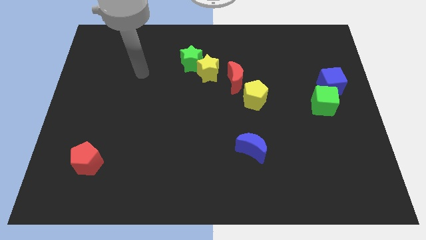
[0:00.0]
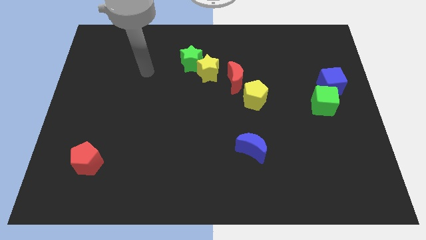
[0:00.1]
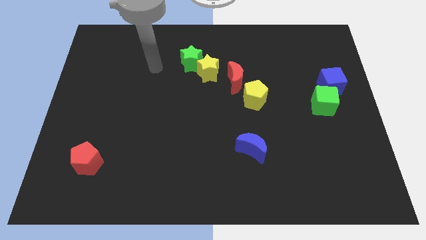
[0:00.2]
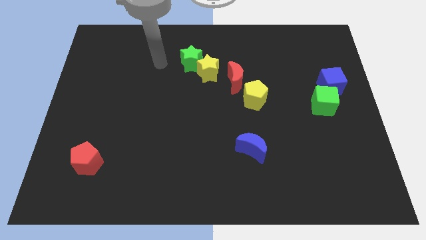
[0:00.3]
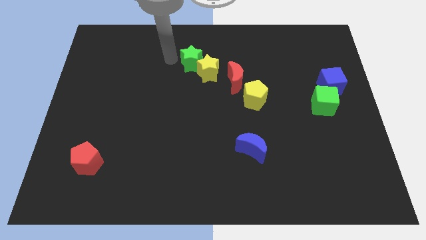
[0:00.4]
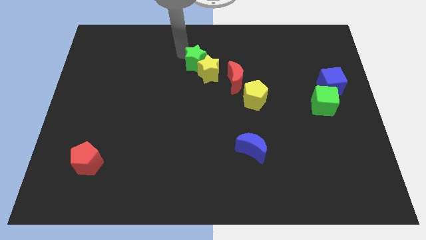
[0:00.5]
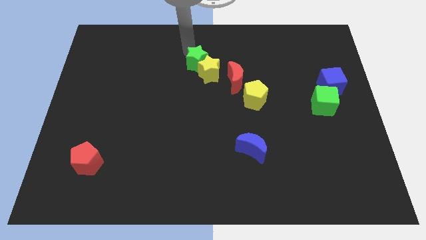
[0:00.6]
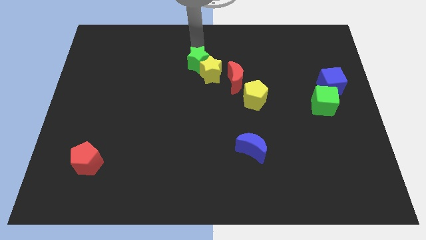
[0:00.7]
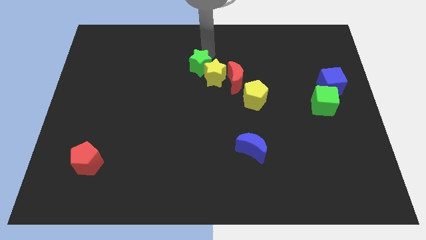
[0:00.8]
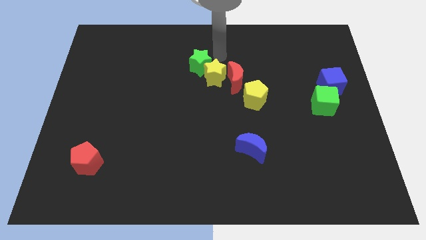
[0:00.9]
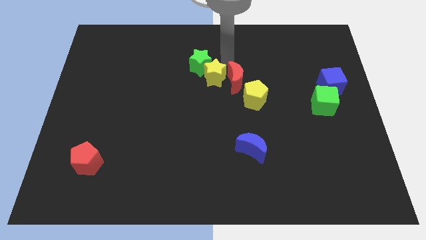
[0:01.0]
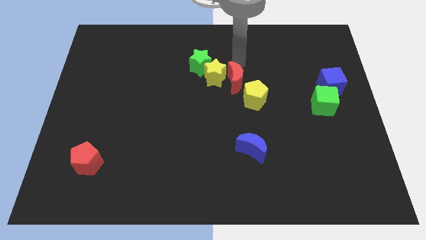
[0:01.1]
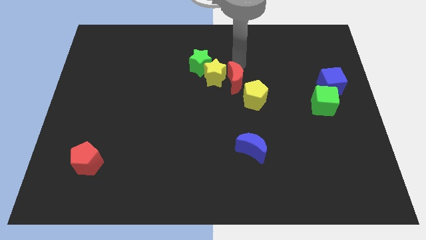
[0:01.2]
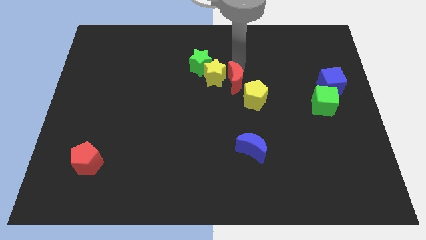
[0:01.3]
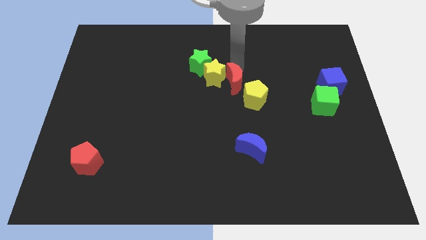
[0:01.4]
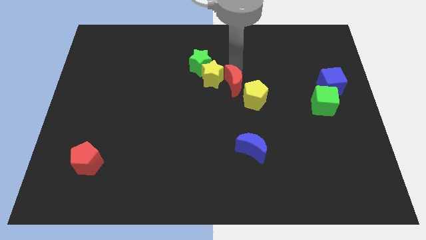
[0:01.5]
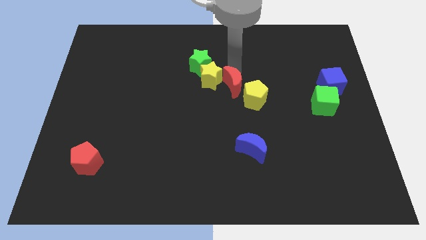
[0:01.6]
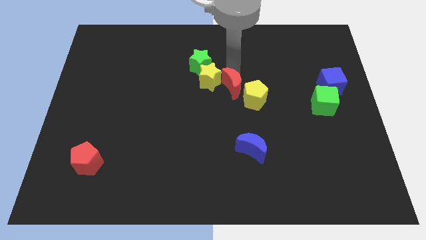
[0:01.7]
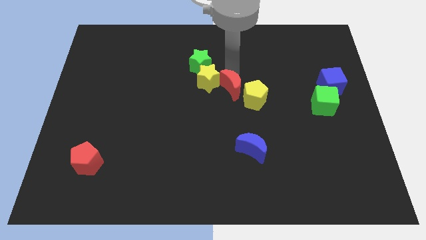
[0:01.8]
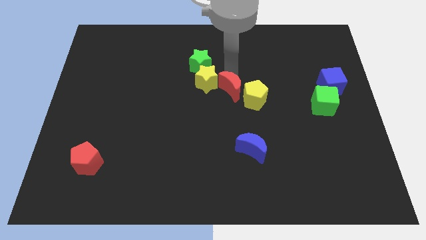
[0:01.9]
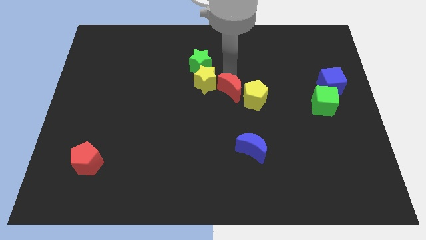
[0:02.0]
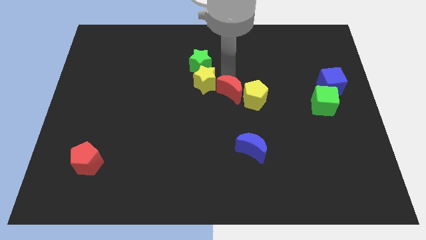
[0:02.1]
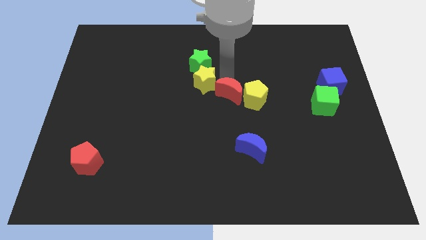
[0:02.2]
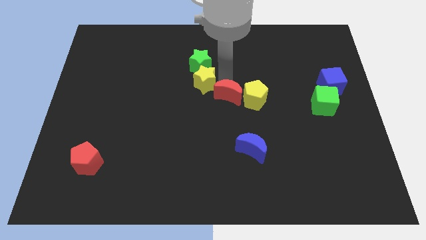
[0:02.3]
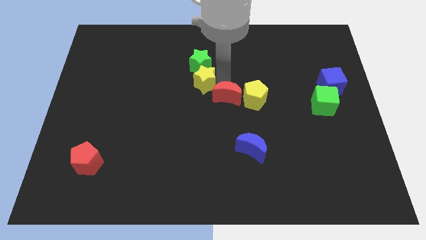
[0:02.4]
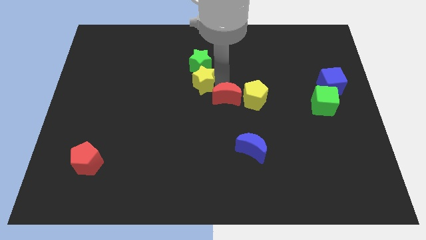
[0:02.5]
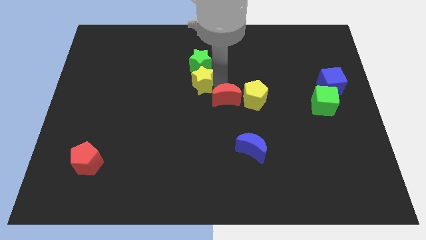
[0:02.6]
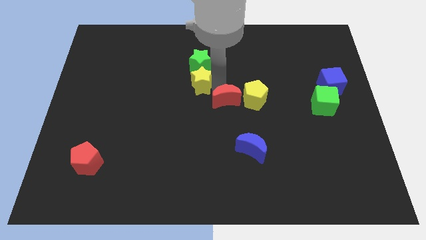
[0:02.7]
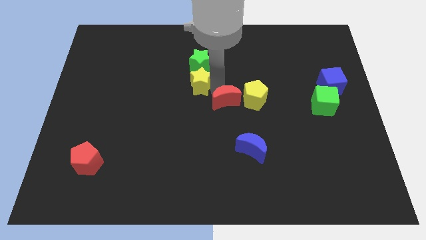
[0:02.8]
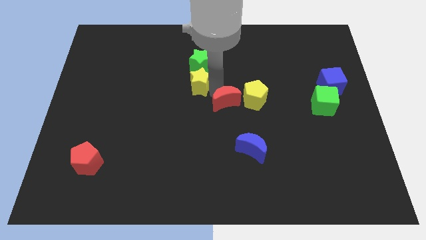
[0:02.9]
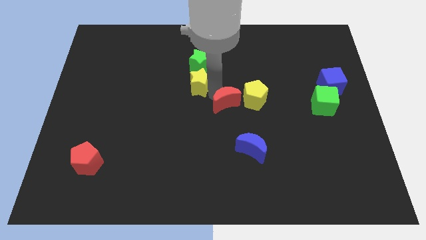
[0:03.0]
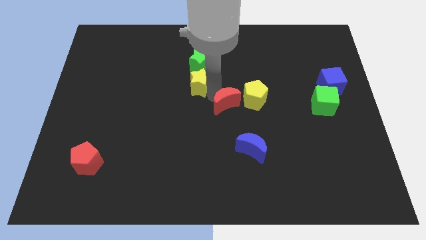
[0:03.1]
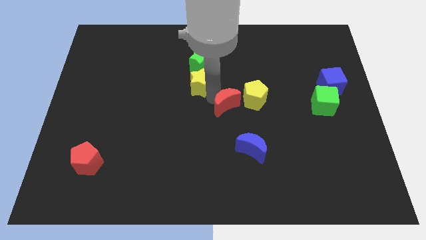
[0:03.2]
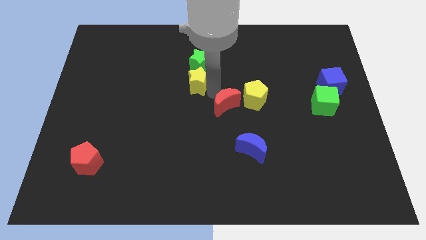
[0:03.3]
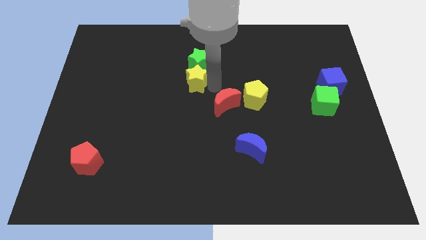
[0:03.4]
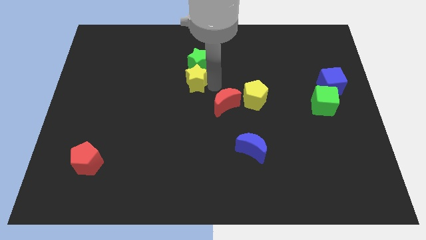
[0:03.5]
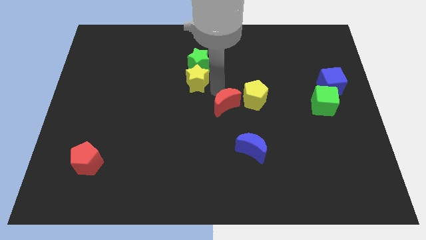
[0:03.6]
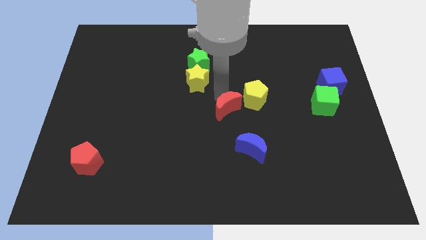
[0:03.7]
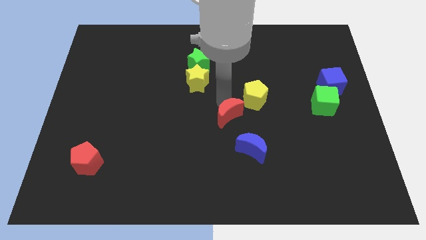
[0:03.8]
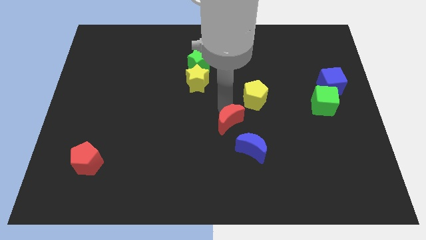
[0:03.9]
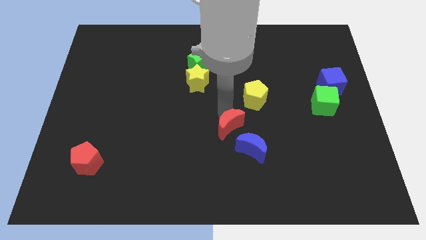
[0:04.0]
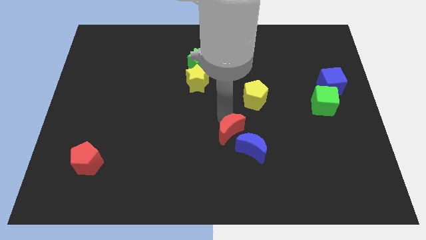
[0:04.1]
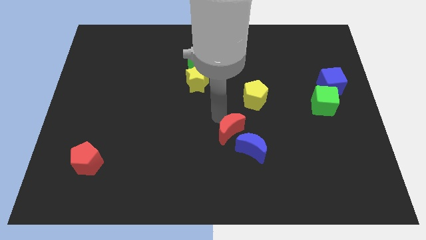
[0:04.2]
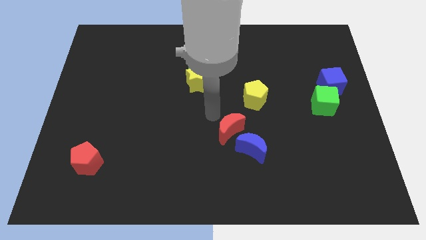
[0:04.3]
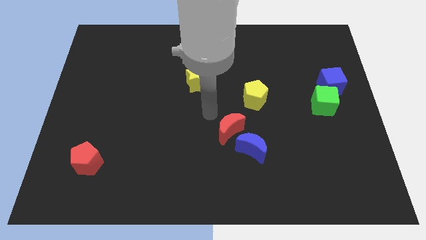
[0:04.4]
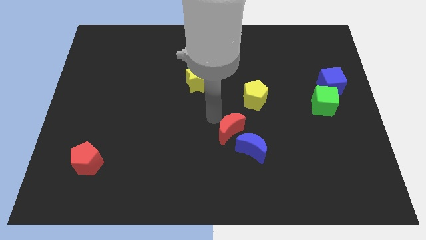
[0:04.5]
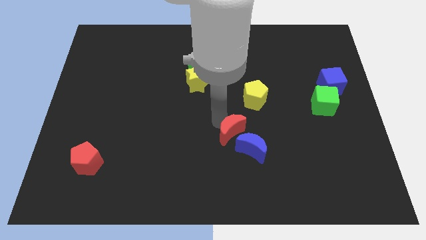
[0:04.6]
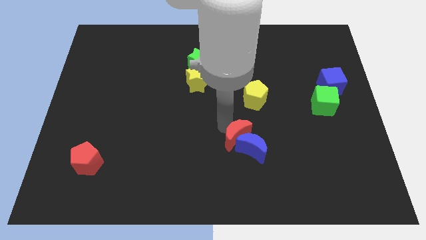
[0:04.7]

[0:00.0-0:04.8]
move the red moon towards the blue moon

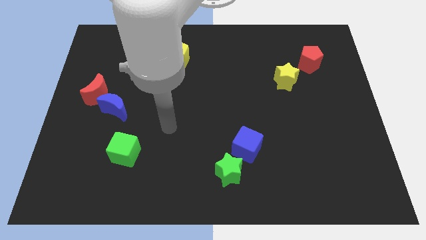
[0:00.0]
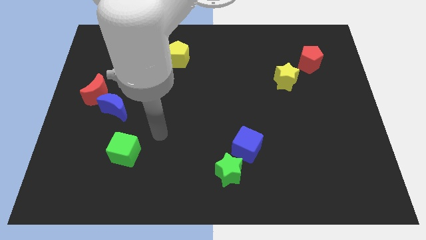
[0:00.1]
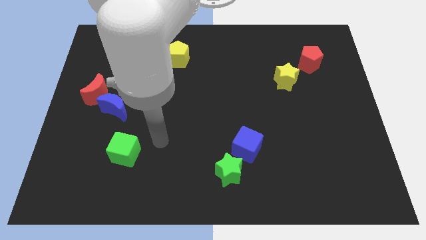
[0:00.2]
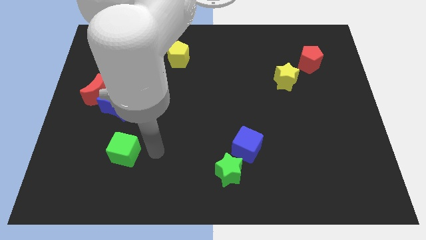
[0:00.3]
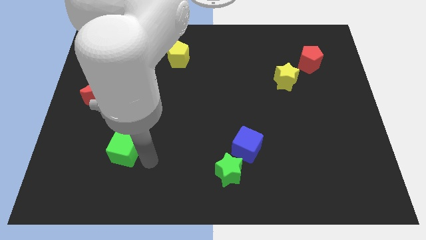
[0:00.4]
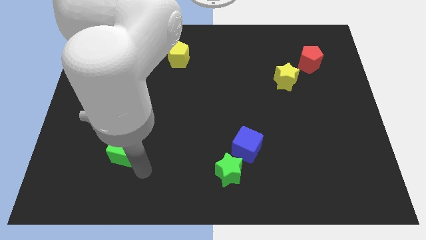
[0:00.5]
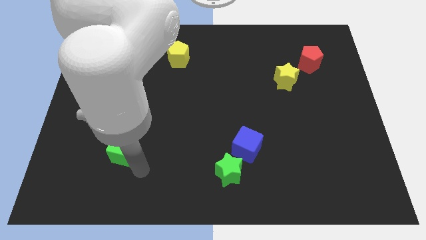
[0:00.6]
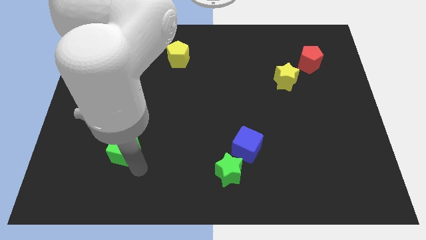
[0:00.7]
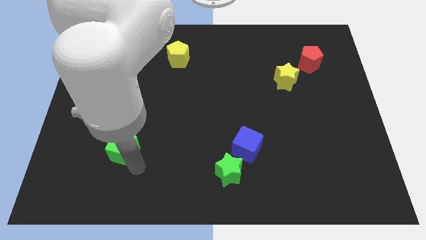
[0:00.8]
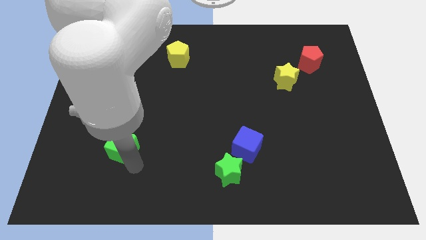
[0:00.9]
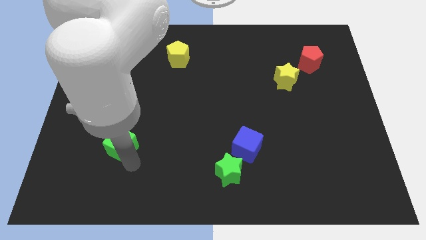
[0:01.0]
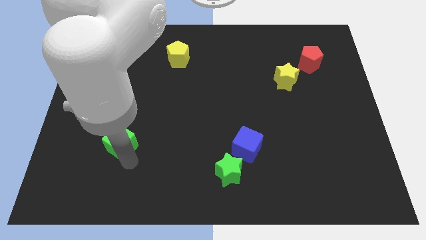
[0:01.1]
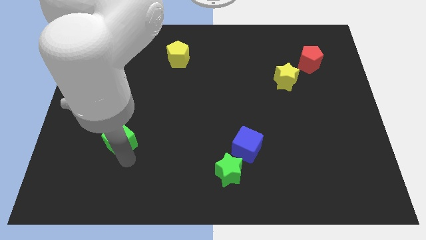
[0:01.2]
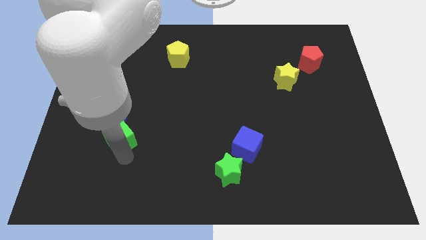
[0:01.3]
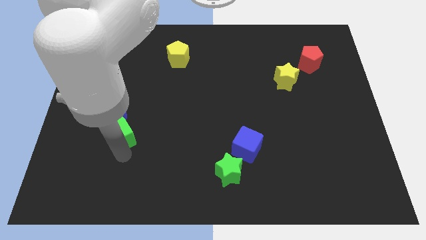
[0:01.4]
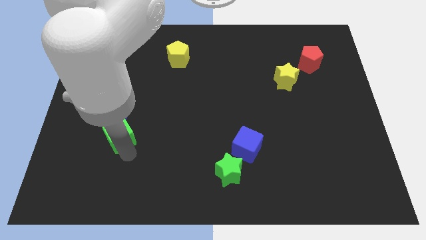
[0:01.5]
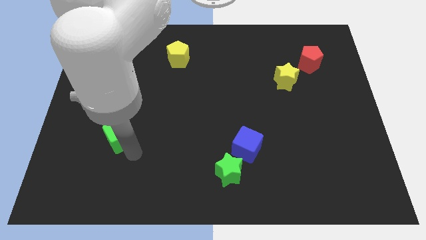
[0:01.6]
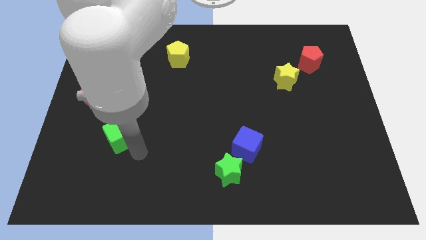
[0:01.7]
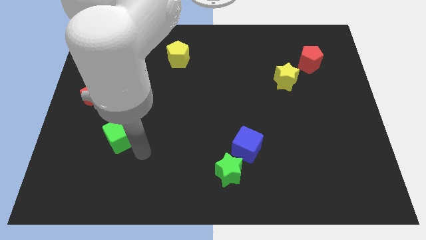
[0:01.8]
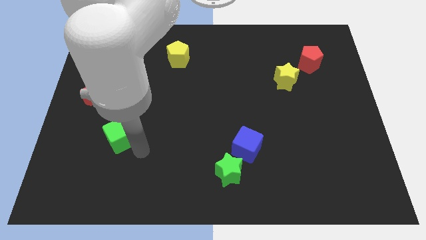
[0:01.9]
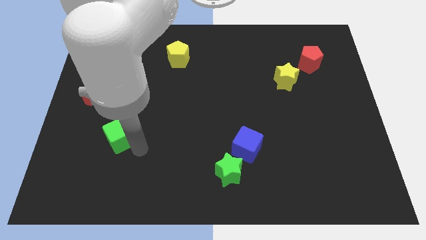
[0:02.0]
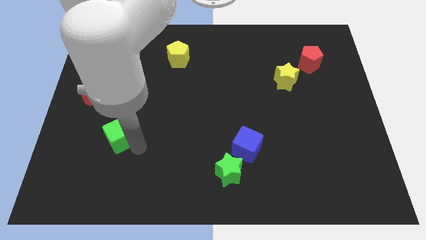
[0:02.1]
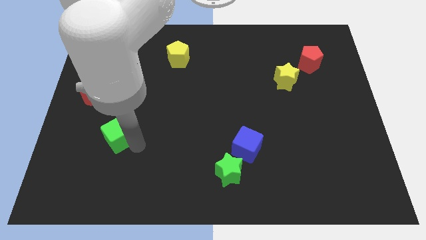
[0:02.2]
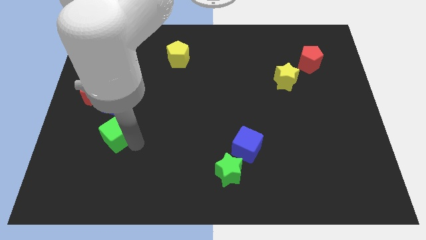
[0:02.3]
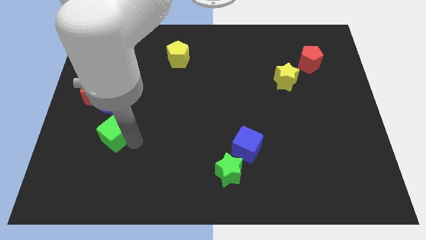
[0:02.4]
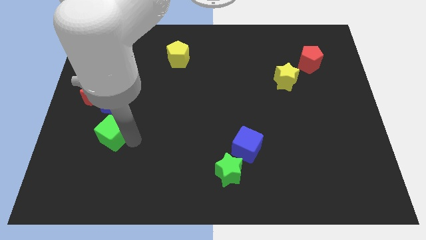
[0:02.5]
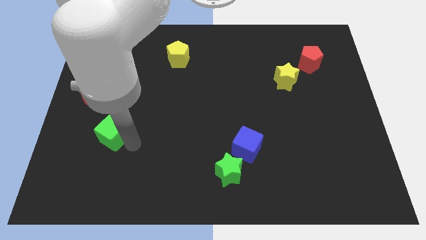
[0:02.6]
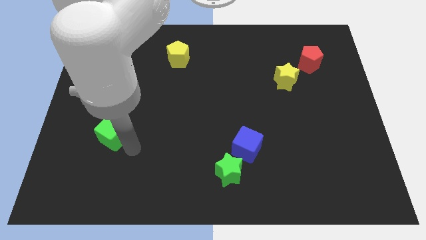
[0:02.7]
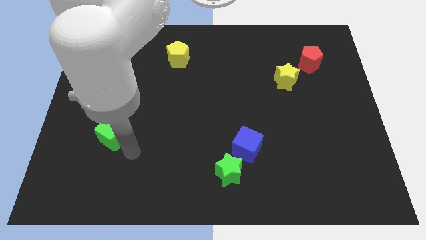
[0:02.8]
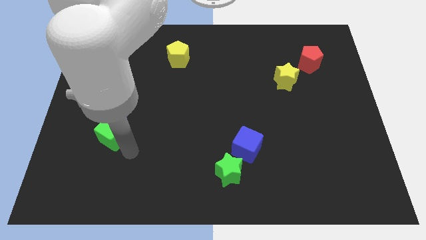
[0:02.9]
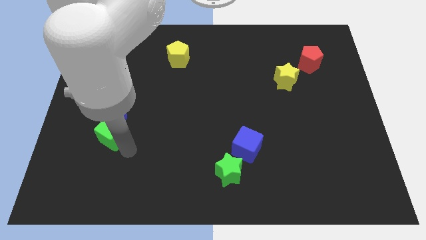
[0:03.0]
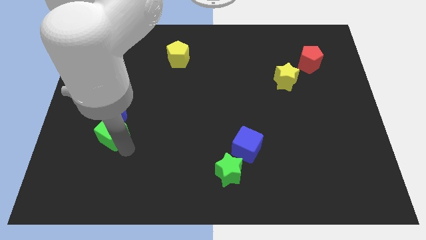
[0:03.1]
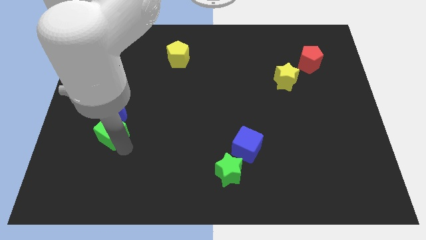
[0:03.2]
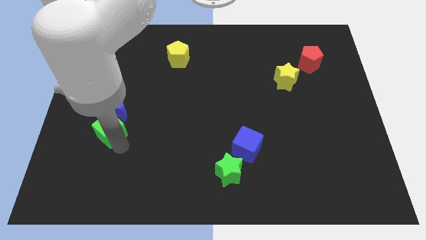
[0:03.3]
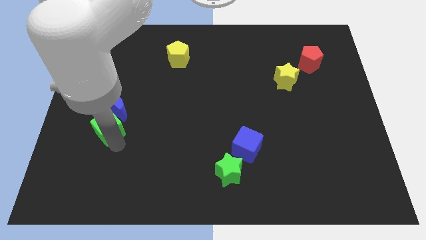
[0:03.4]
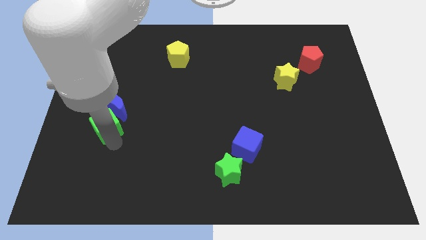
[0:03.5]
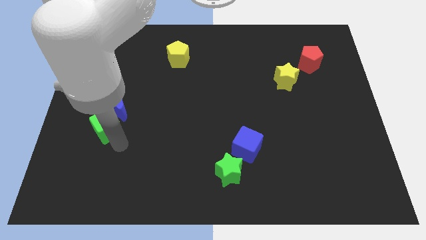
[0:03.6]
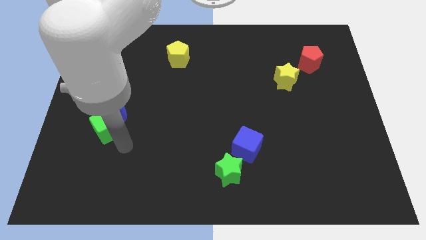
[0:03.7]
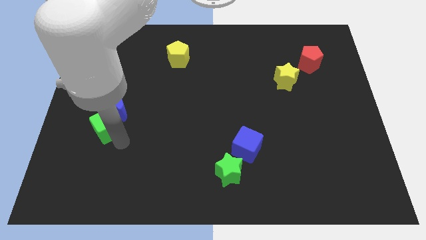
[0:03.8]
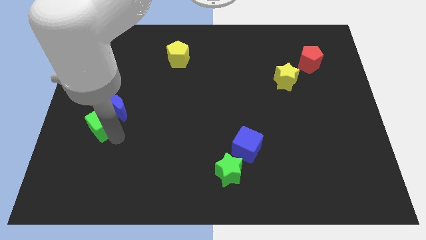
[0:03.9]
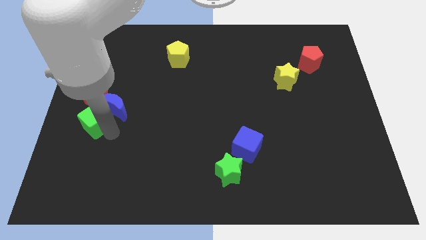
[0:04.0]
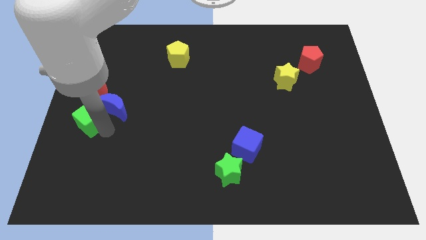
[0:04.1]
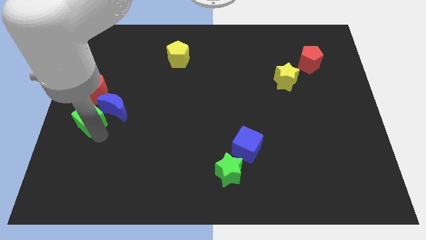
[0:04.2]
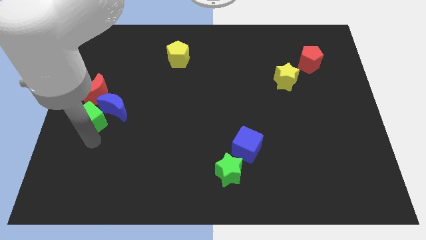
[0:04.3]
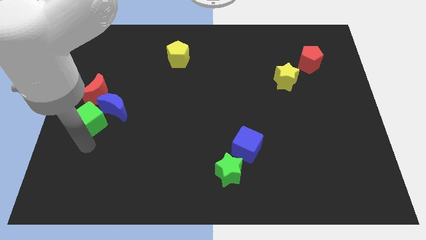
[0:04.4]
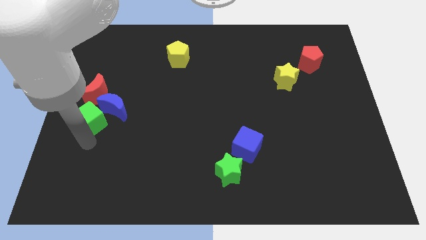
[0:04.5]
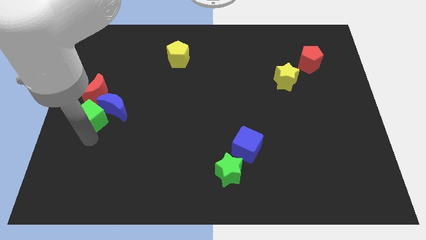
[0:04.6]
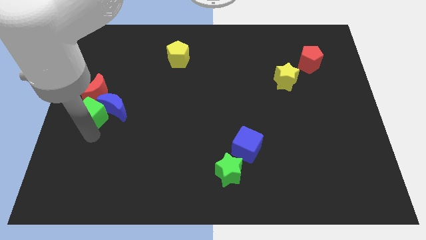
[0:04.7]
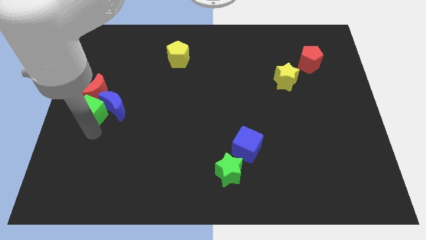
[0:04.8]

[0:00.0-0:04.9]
slide the green cube to the red moon
